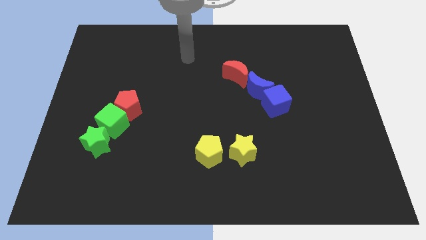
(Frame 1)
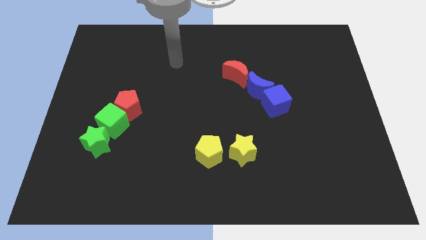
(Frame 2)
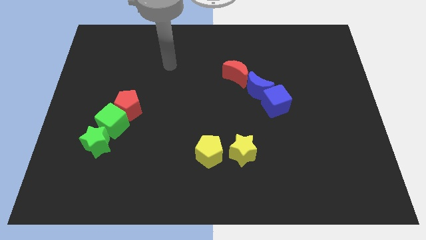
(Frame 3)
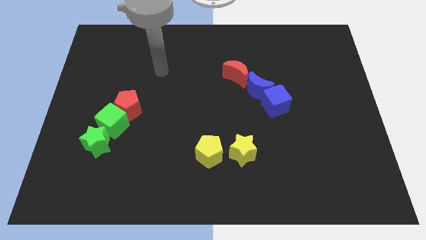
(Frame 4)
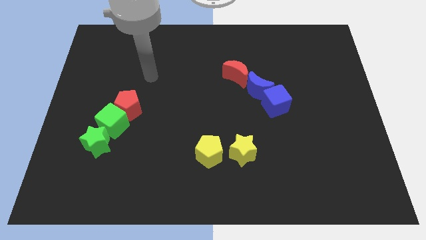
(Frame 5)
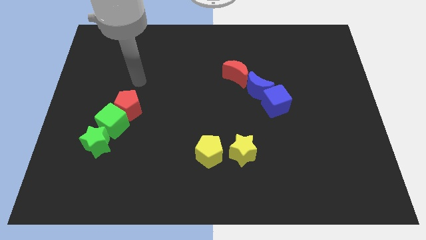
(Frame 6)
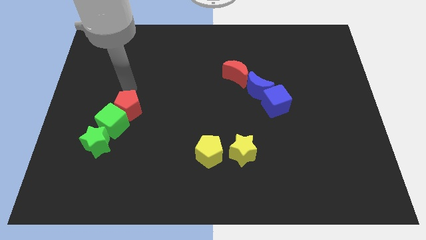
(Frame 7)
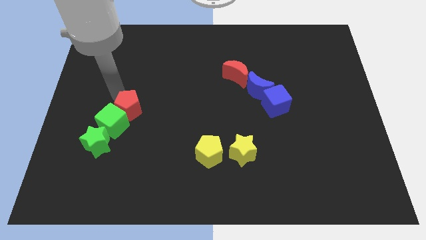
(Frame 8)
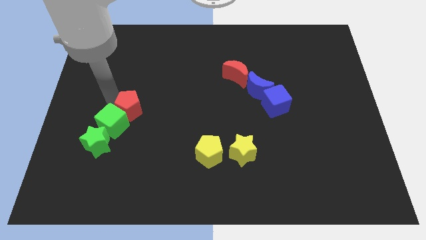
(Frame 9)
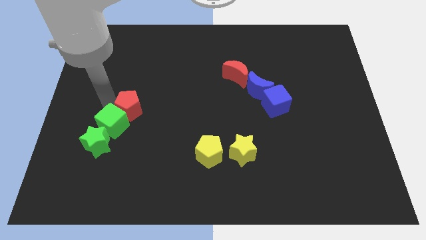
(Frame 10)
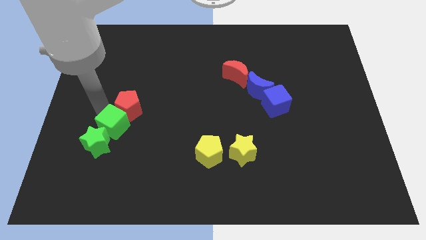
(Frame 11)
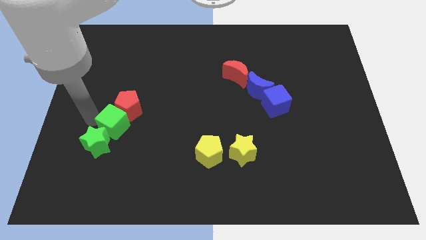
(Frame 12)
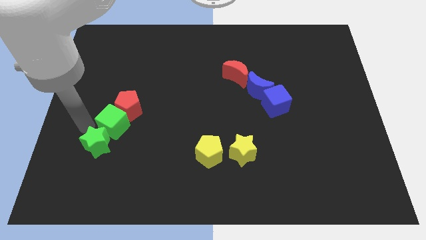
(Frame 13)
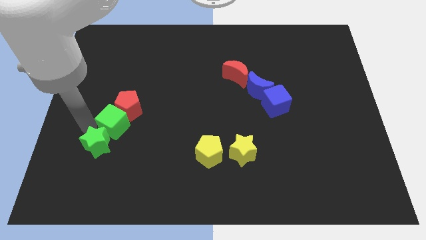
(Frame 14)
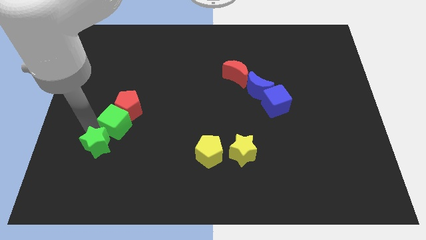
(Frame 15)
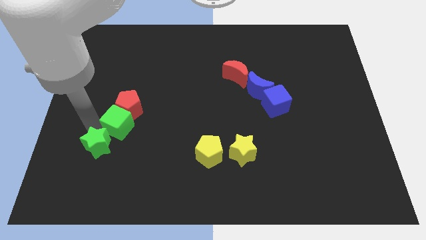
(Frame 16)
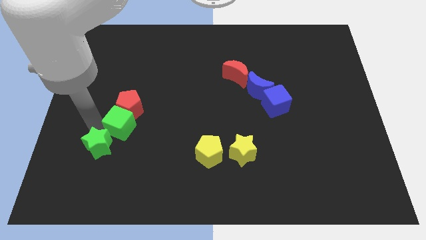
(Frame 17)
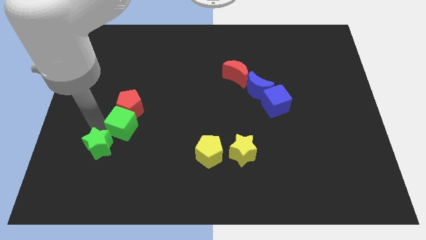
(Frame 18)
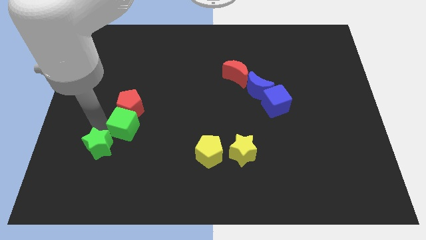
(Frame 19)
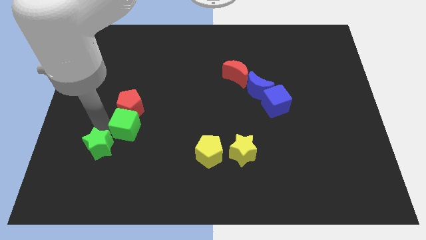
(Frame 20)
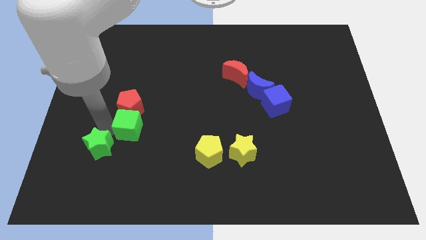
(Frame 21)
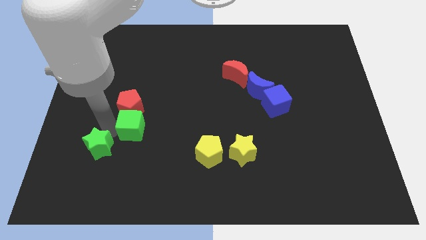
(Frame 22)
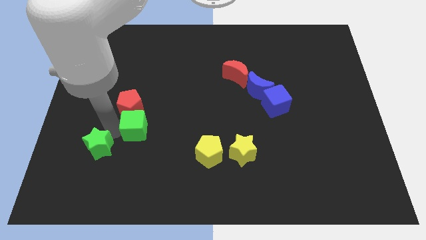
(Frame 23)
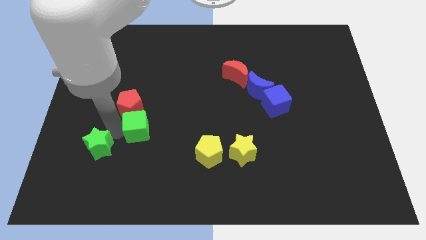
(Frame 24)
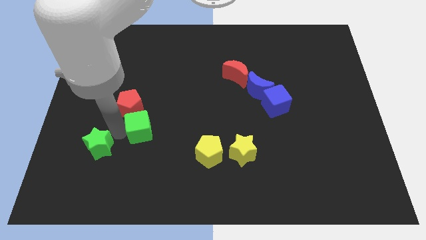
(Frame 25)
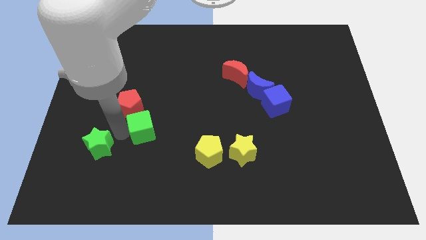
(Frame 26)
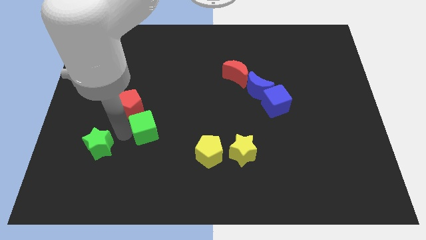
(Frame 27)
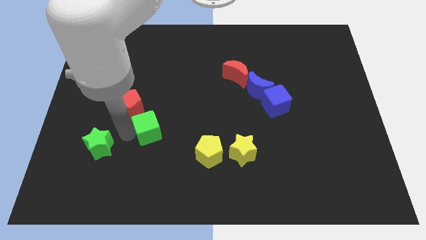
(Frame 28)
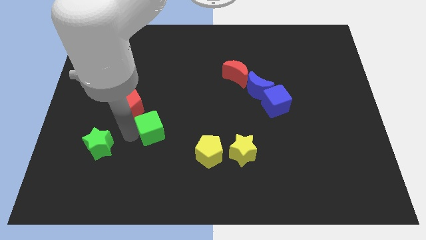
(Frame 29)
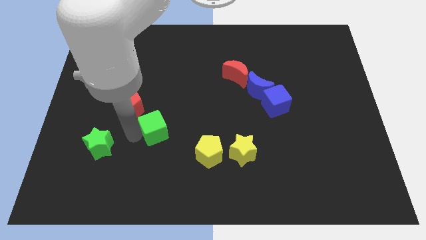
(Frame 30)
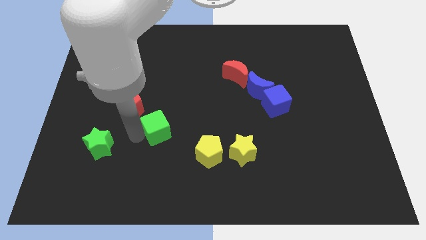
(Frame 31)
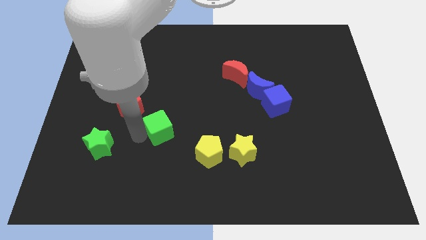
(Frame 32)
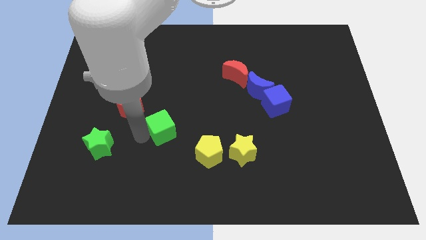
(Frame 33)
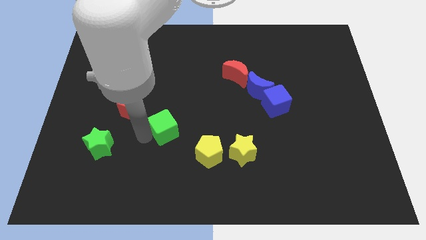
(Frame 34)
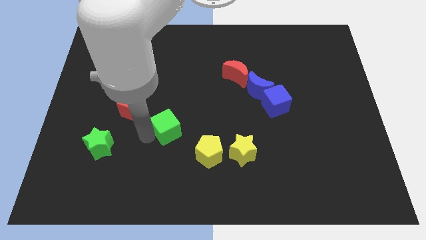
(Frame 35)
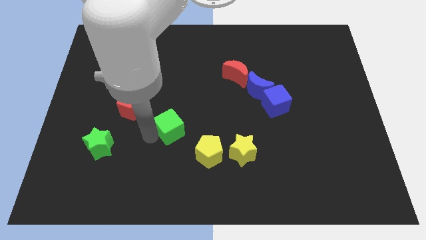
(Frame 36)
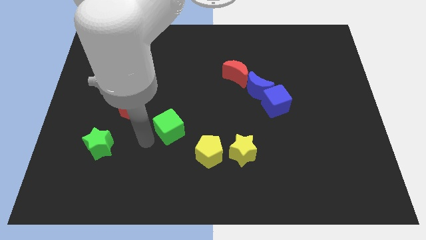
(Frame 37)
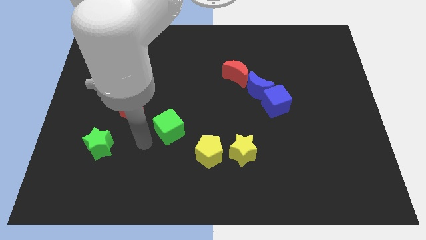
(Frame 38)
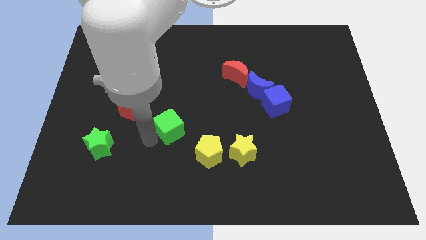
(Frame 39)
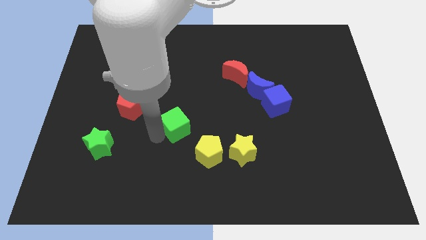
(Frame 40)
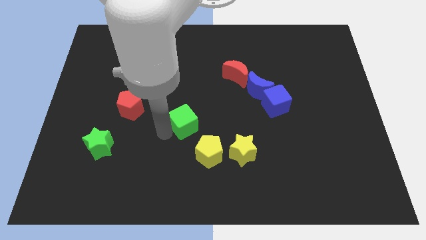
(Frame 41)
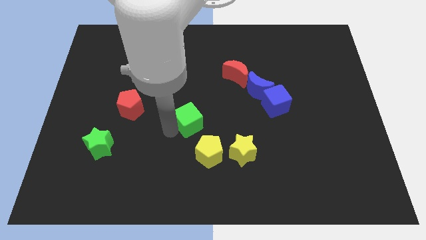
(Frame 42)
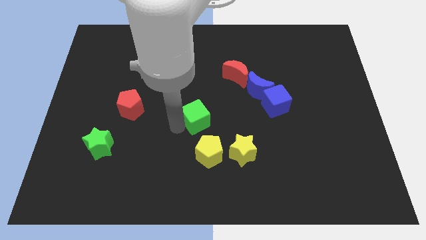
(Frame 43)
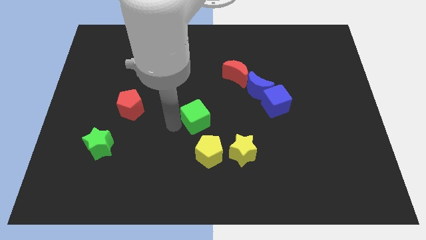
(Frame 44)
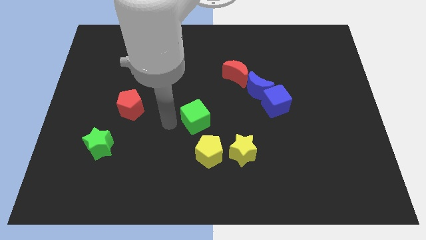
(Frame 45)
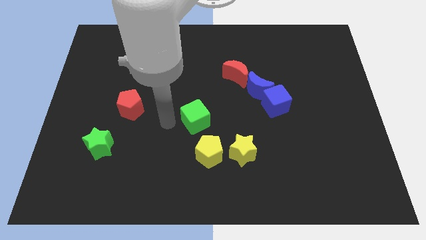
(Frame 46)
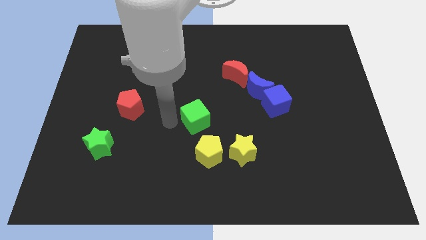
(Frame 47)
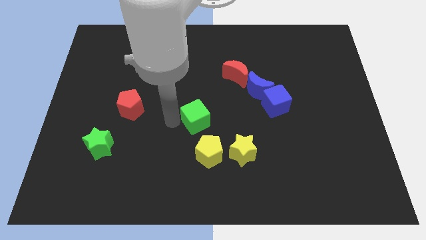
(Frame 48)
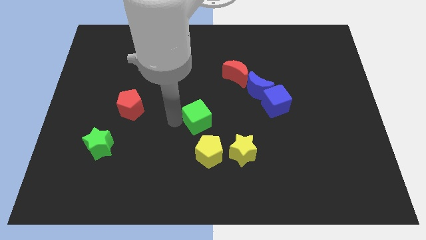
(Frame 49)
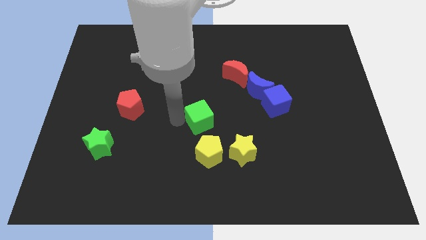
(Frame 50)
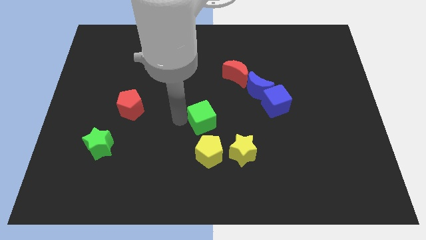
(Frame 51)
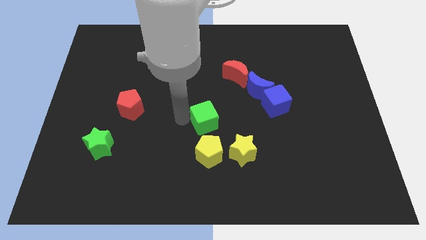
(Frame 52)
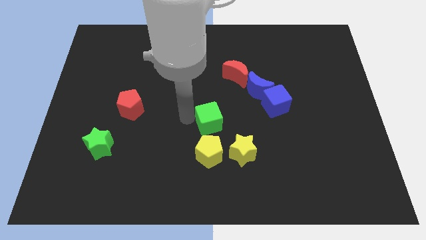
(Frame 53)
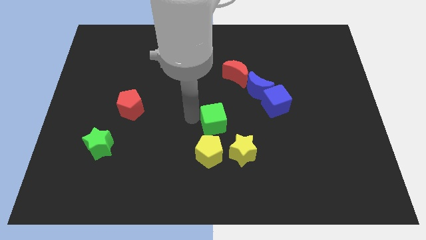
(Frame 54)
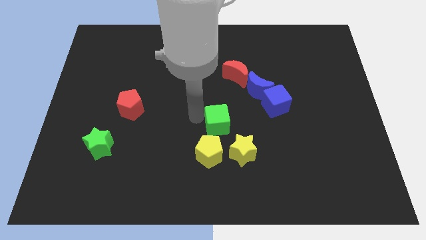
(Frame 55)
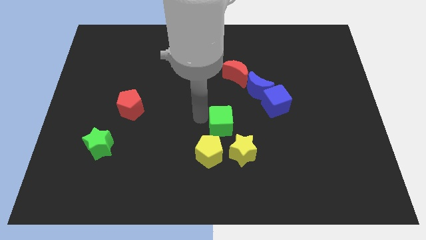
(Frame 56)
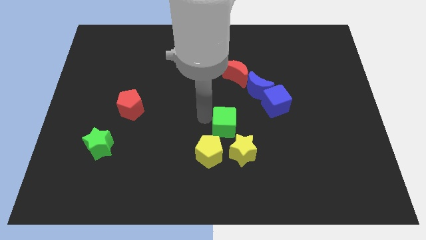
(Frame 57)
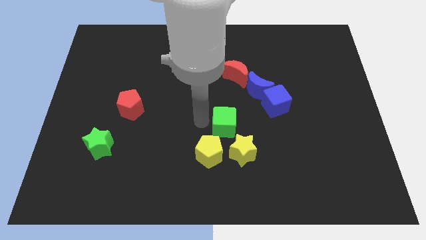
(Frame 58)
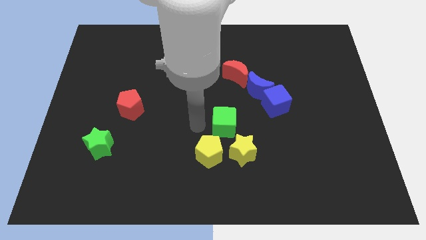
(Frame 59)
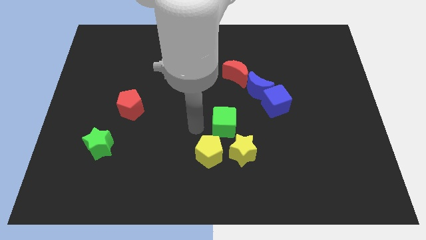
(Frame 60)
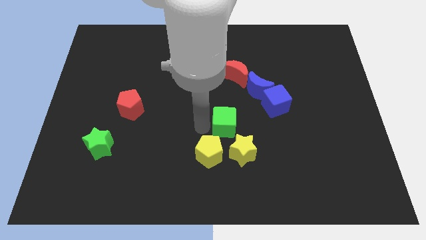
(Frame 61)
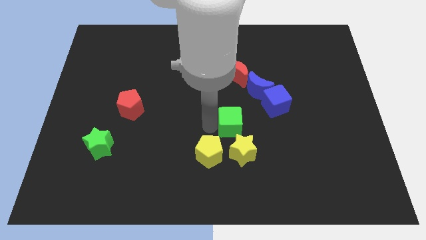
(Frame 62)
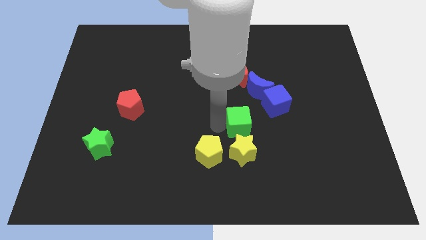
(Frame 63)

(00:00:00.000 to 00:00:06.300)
move the green cube diagonally down and to the left of the blue cube

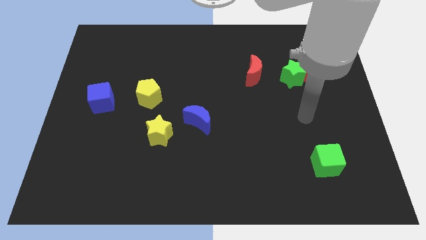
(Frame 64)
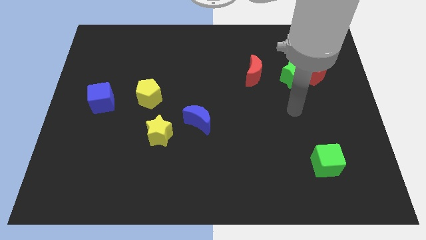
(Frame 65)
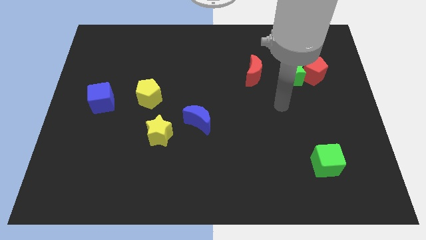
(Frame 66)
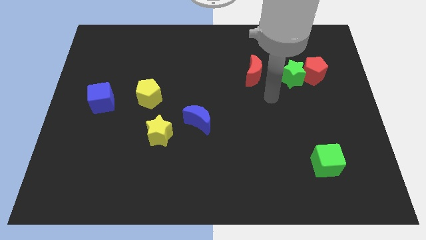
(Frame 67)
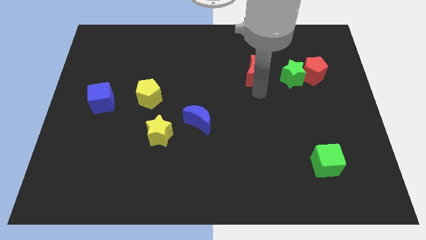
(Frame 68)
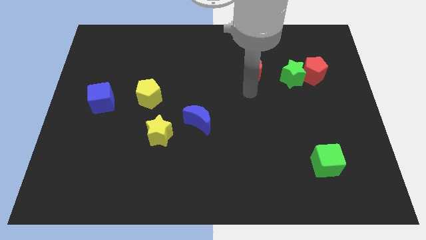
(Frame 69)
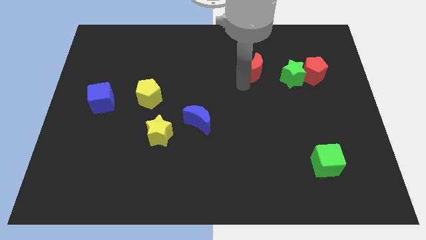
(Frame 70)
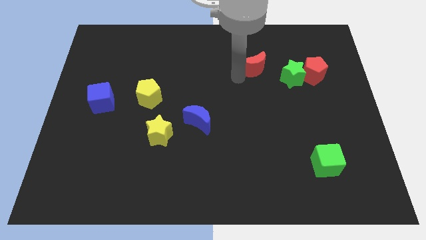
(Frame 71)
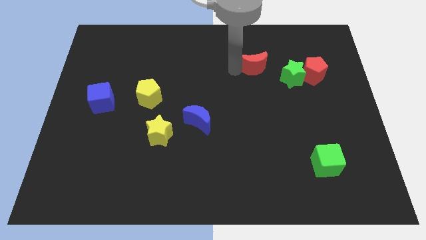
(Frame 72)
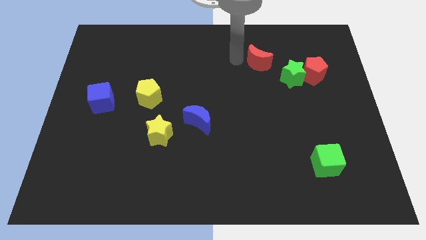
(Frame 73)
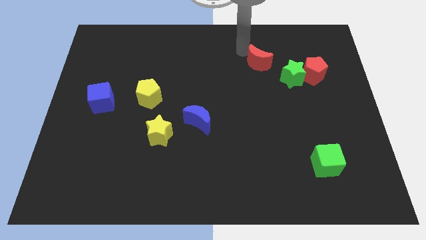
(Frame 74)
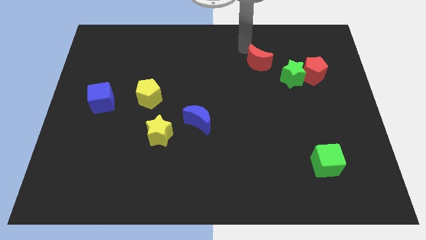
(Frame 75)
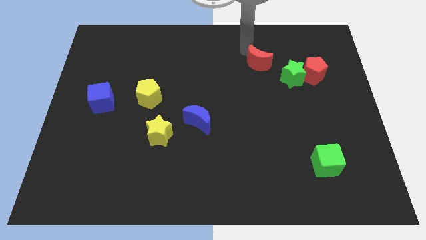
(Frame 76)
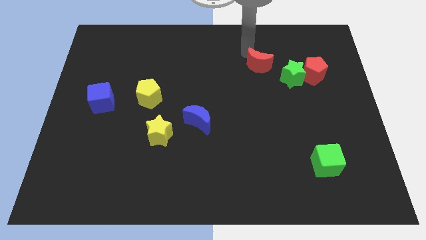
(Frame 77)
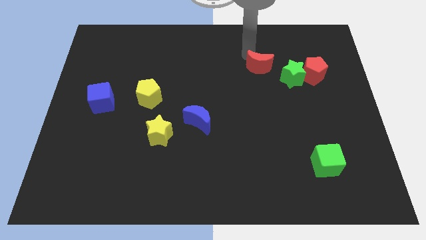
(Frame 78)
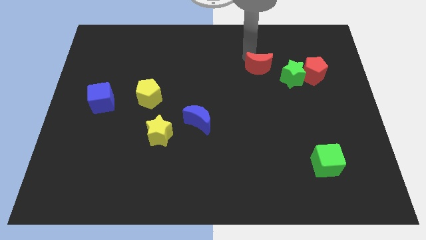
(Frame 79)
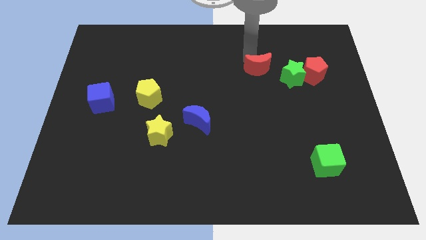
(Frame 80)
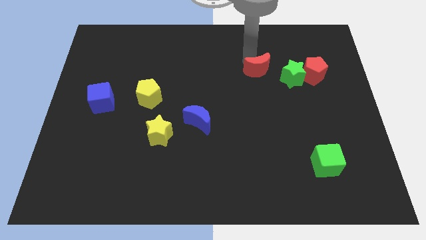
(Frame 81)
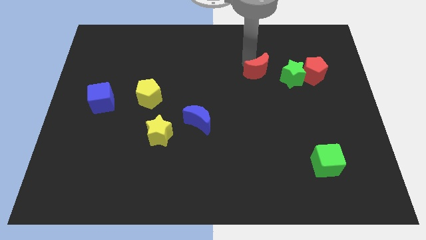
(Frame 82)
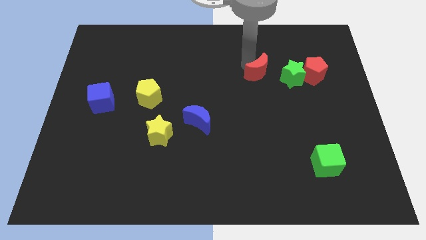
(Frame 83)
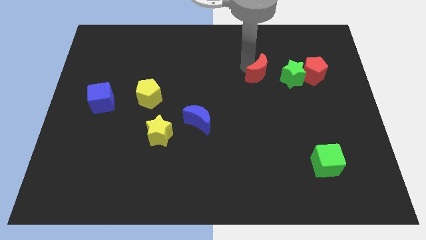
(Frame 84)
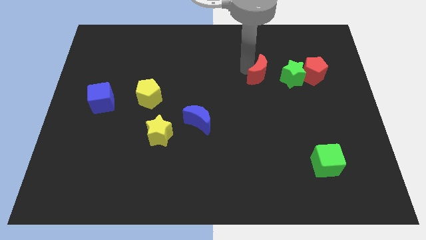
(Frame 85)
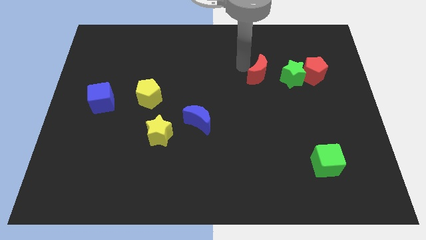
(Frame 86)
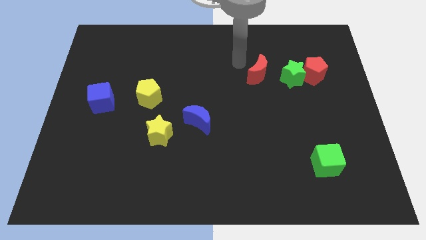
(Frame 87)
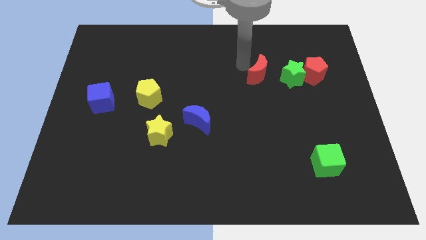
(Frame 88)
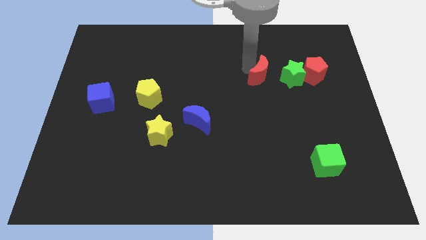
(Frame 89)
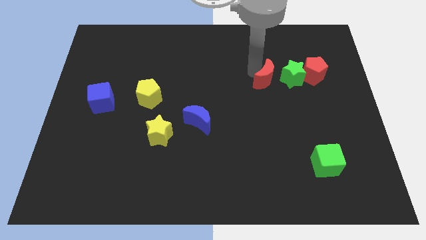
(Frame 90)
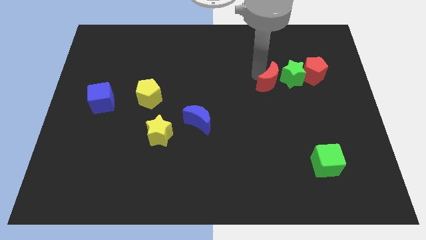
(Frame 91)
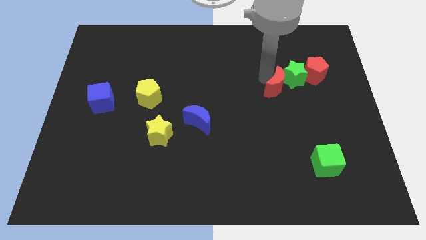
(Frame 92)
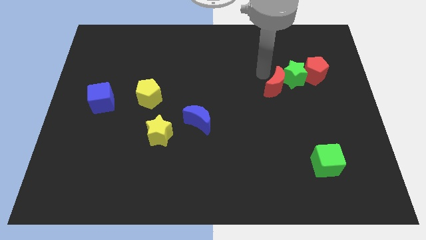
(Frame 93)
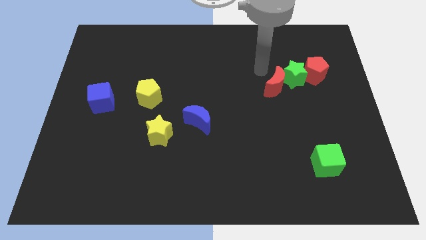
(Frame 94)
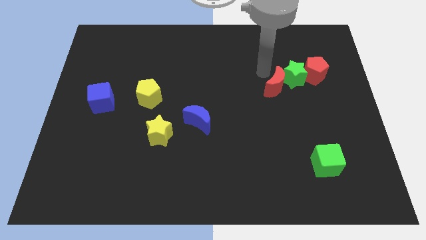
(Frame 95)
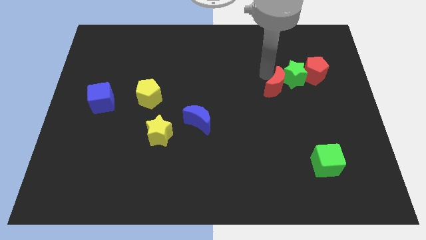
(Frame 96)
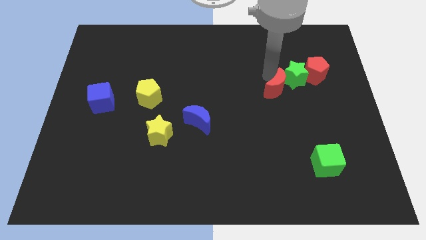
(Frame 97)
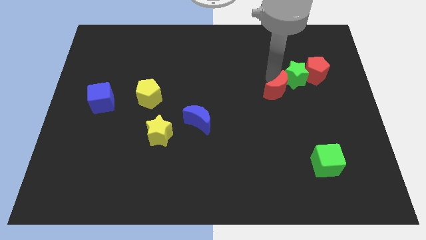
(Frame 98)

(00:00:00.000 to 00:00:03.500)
move the red moon to the bottom of the green star
